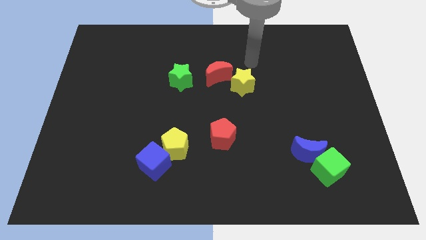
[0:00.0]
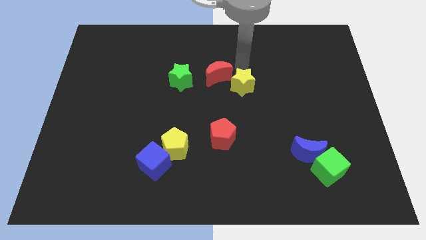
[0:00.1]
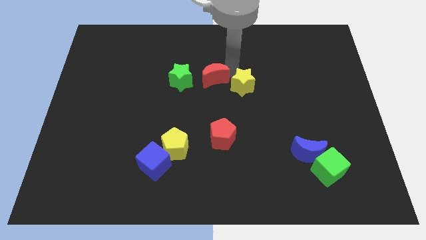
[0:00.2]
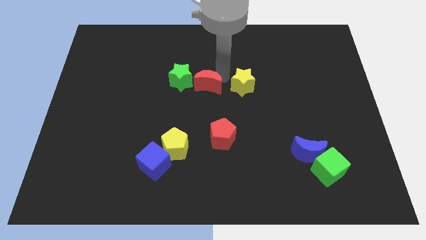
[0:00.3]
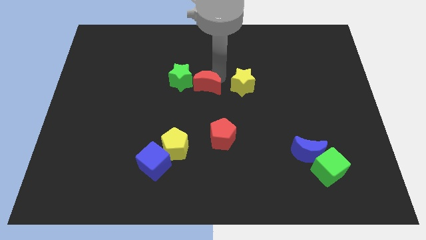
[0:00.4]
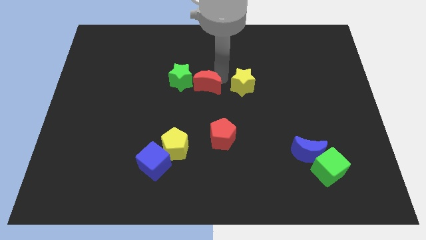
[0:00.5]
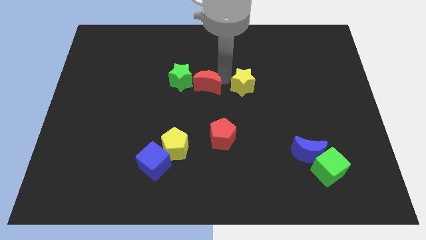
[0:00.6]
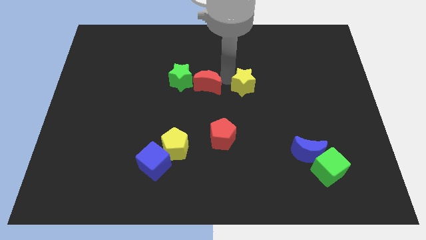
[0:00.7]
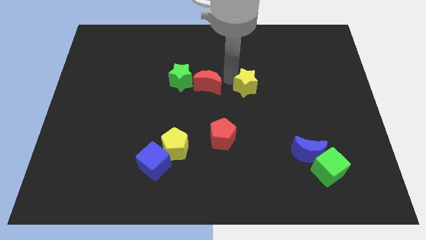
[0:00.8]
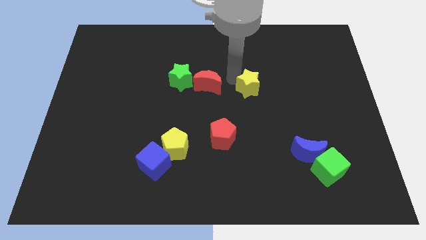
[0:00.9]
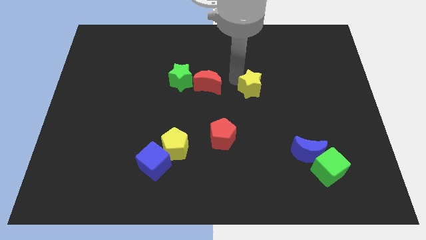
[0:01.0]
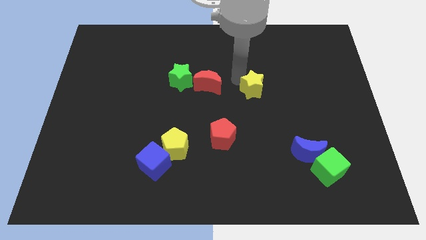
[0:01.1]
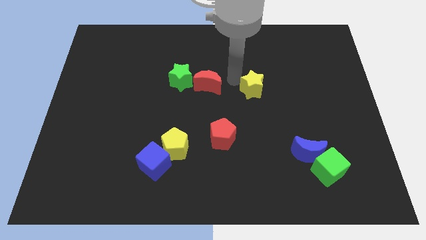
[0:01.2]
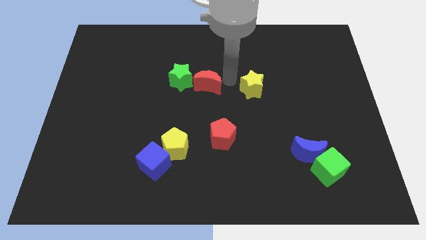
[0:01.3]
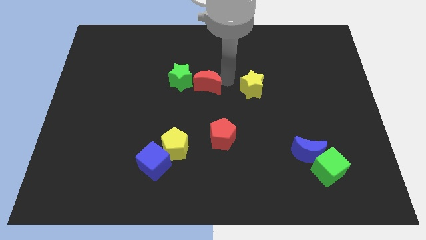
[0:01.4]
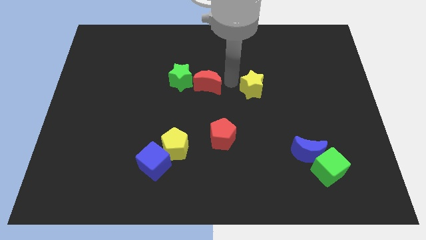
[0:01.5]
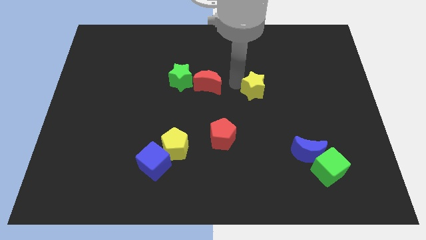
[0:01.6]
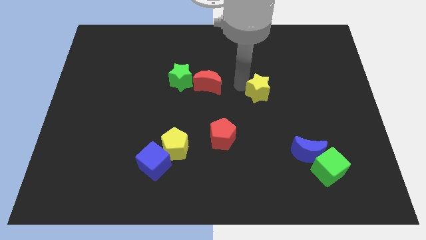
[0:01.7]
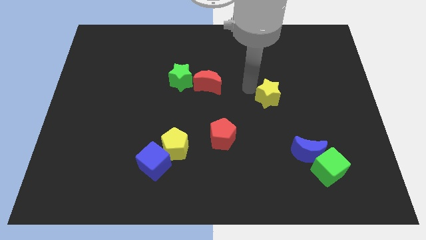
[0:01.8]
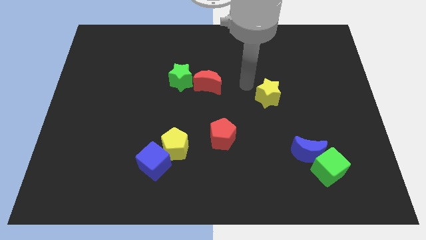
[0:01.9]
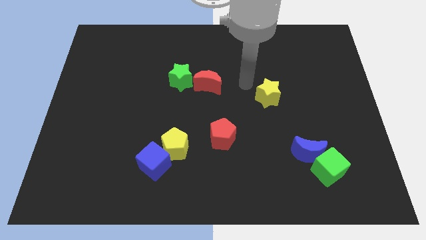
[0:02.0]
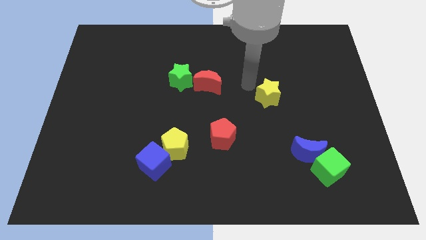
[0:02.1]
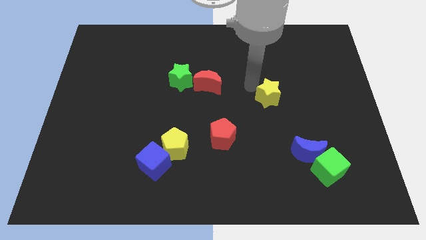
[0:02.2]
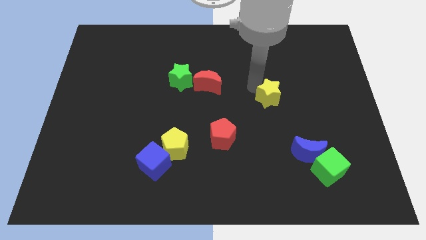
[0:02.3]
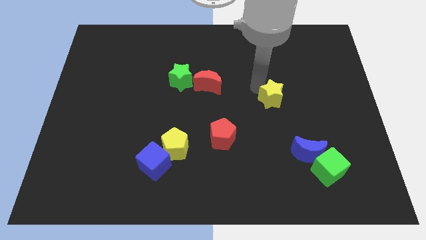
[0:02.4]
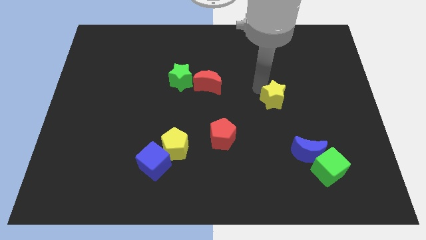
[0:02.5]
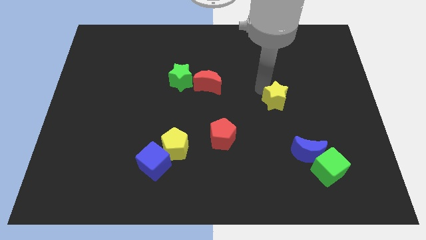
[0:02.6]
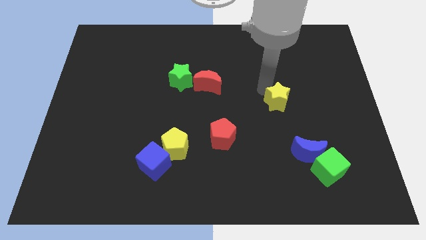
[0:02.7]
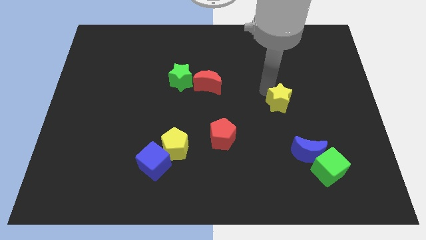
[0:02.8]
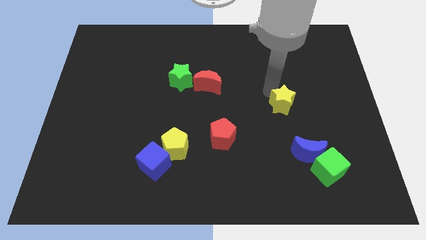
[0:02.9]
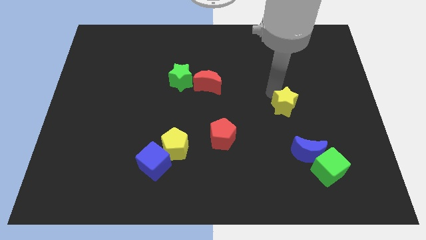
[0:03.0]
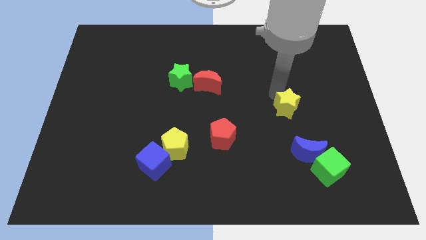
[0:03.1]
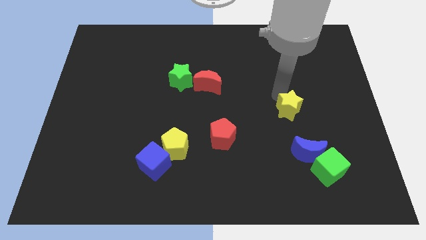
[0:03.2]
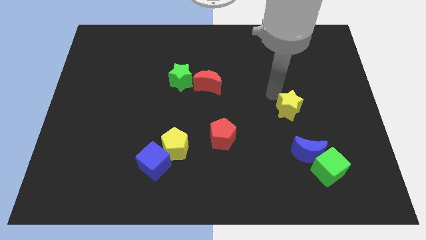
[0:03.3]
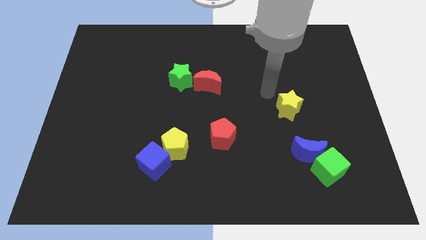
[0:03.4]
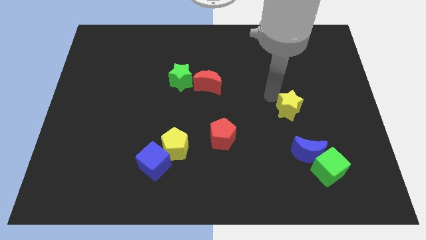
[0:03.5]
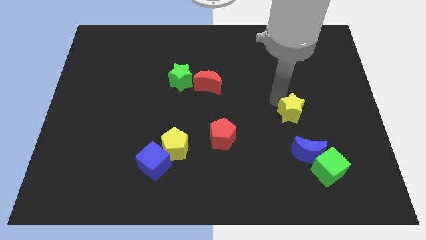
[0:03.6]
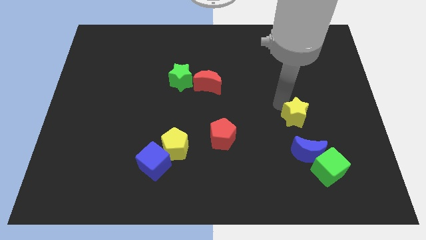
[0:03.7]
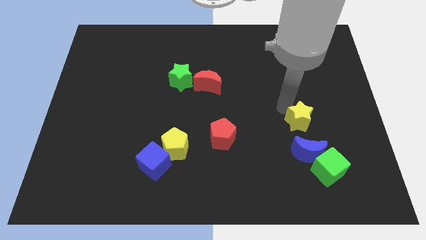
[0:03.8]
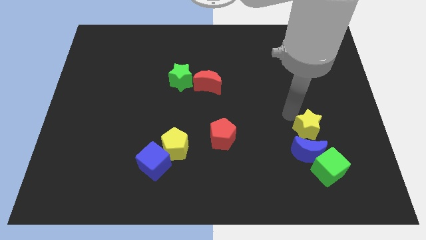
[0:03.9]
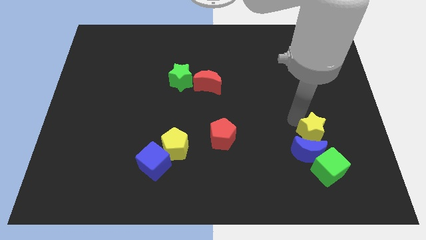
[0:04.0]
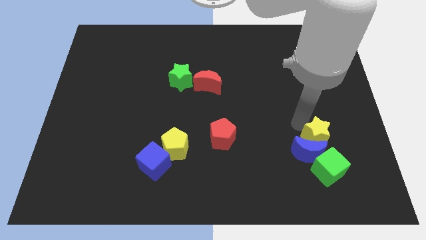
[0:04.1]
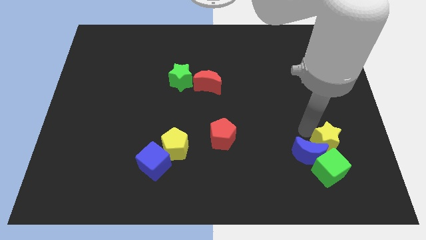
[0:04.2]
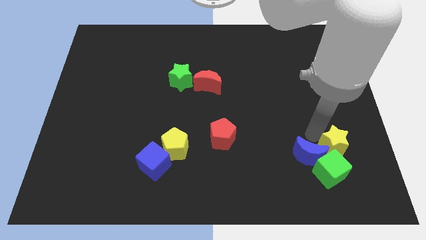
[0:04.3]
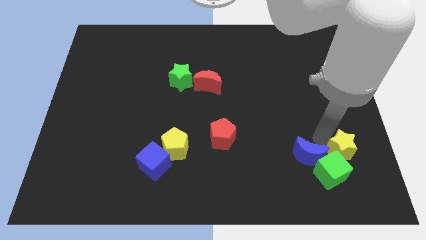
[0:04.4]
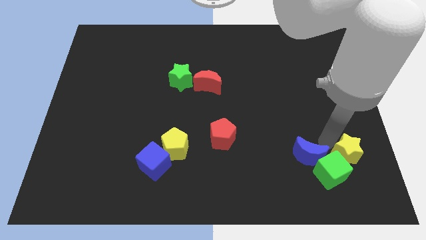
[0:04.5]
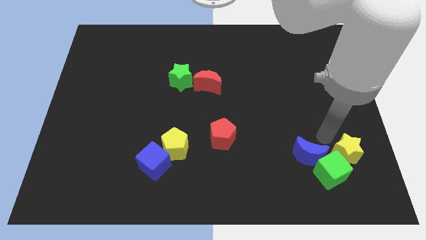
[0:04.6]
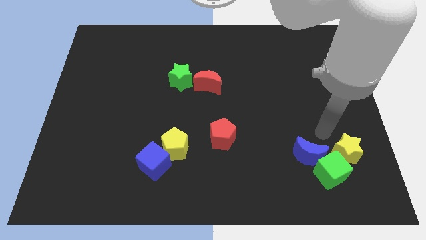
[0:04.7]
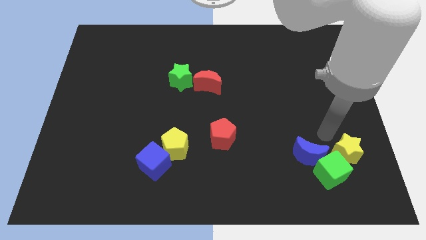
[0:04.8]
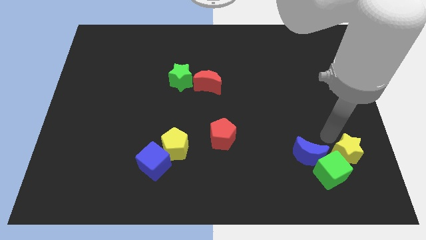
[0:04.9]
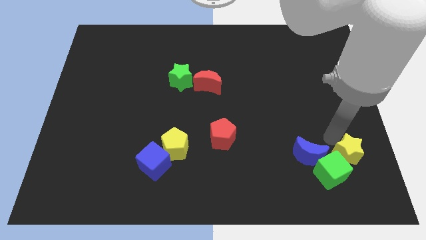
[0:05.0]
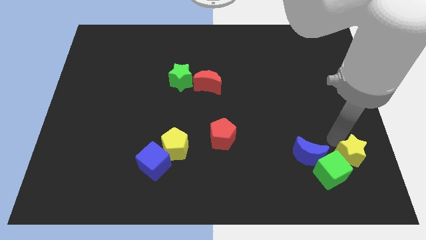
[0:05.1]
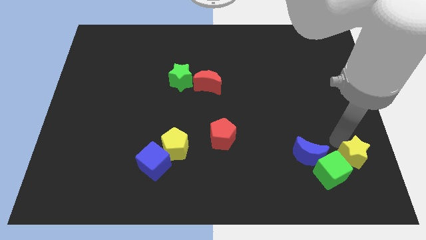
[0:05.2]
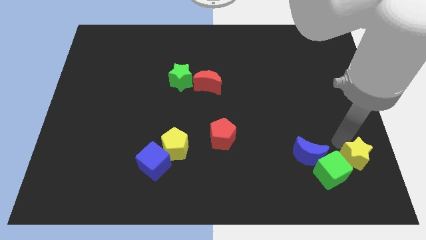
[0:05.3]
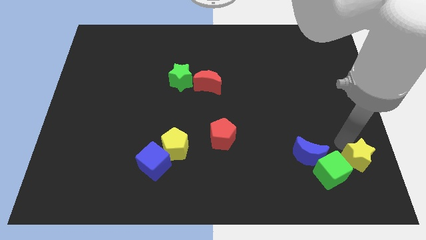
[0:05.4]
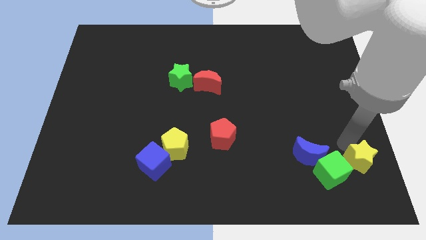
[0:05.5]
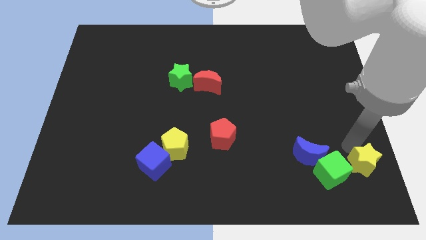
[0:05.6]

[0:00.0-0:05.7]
move the yellow star to the bottom right of the board

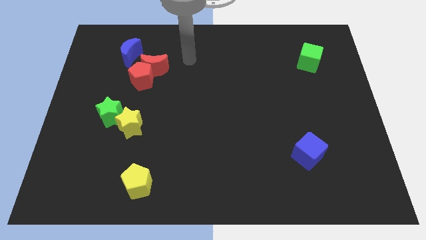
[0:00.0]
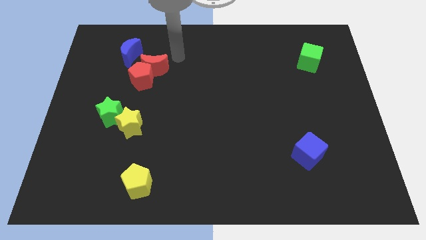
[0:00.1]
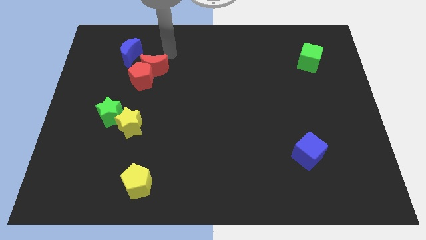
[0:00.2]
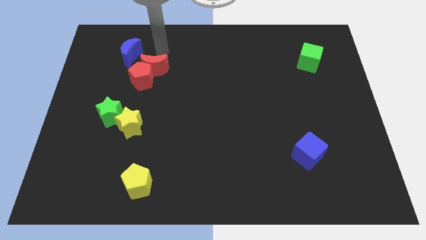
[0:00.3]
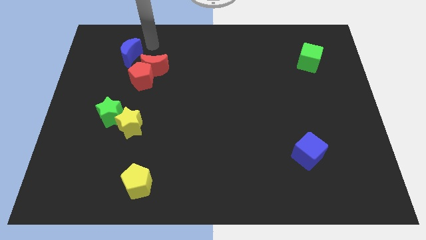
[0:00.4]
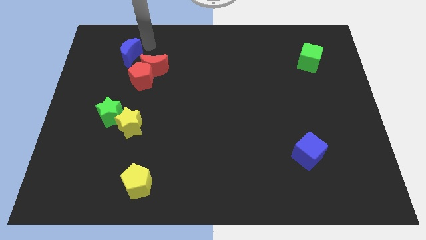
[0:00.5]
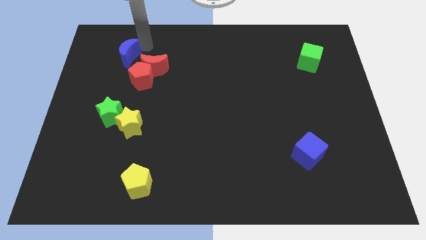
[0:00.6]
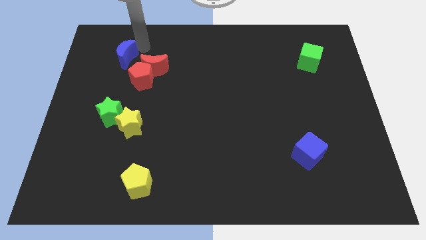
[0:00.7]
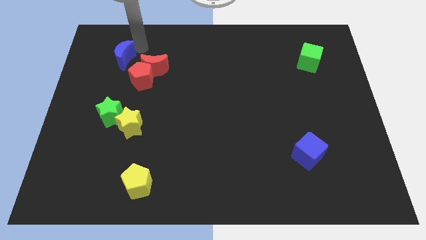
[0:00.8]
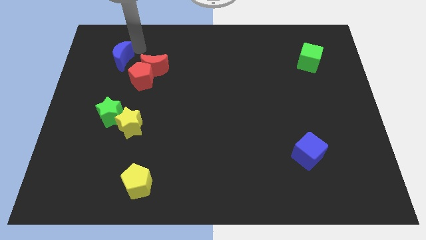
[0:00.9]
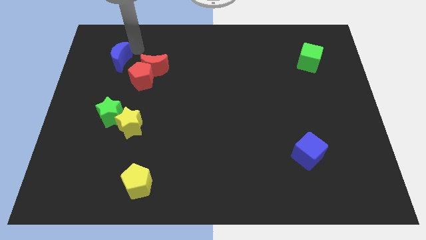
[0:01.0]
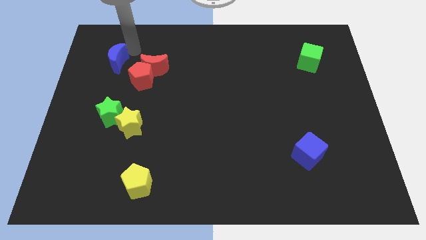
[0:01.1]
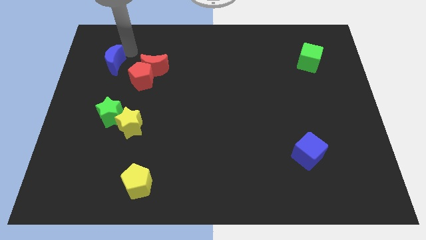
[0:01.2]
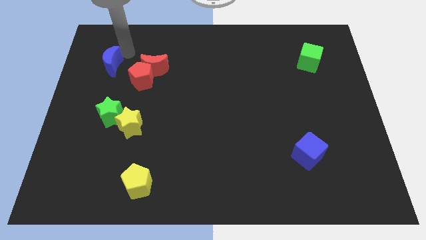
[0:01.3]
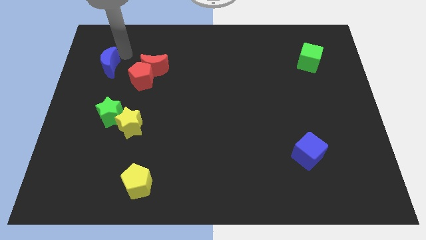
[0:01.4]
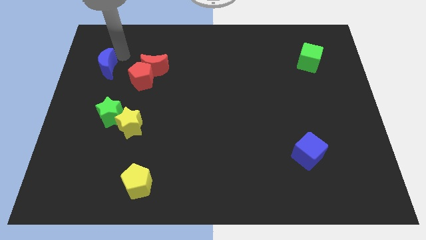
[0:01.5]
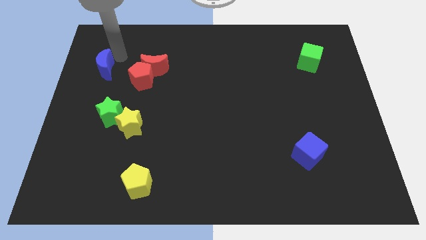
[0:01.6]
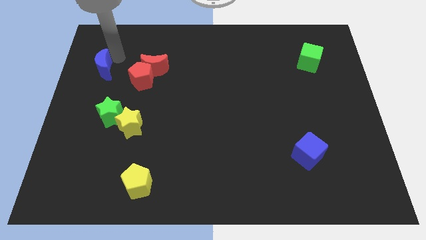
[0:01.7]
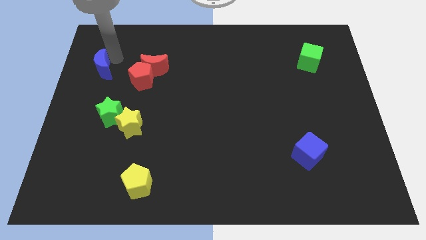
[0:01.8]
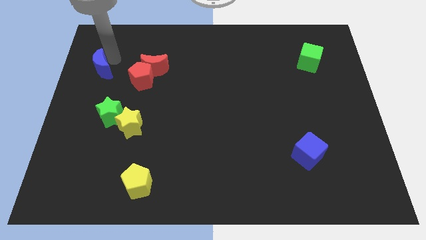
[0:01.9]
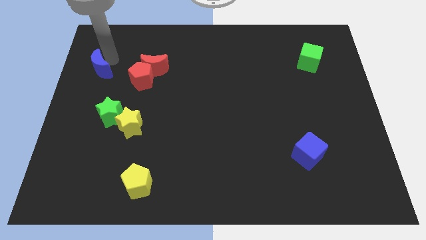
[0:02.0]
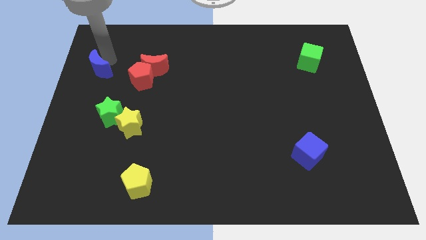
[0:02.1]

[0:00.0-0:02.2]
push the blue moon to the center left

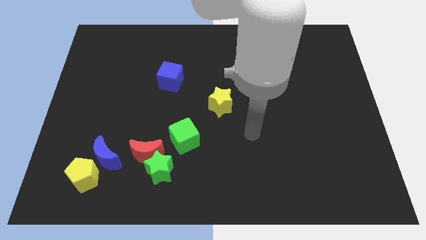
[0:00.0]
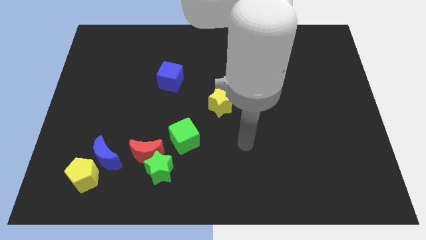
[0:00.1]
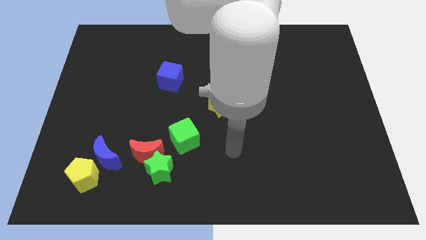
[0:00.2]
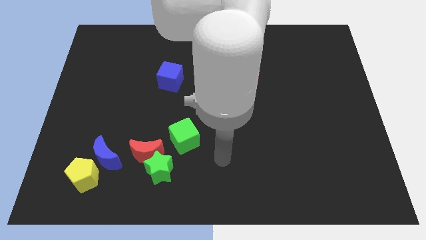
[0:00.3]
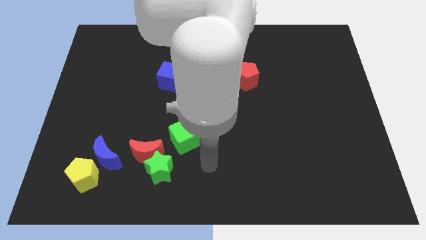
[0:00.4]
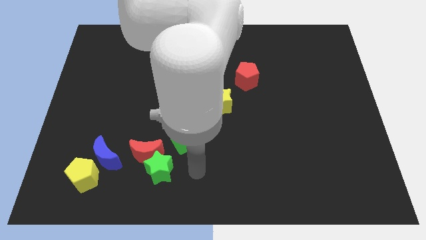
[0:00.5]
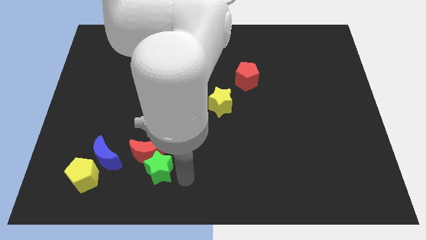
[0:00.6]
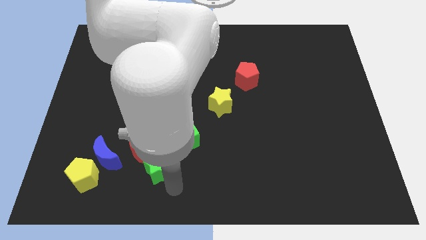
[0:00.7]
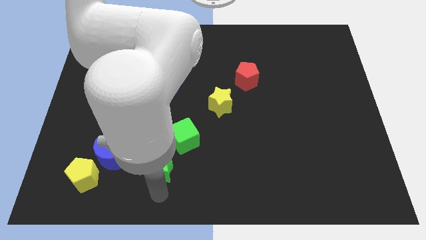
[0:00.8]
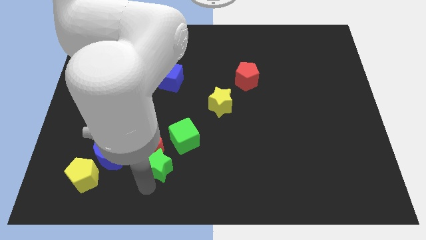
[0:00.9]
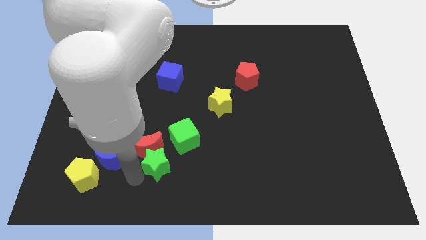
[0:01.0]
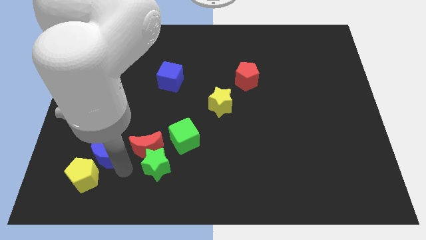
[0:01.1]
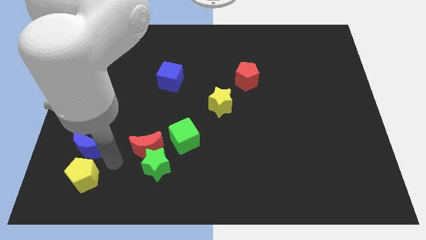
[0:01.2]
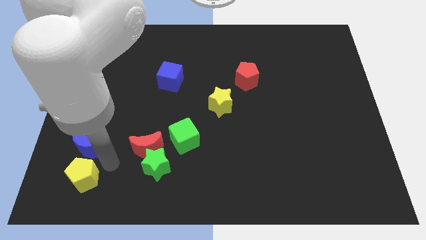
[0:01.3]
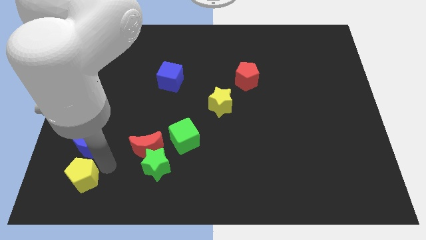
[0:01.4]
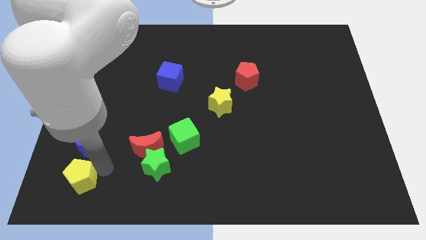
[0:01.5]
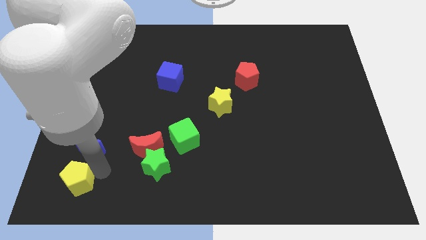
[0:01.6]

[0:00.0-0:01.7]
slide the yellow pentagon to the bottom left corner
